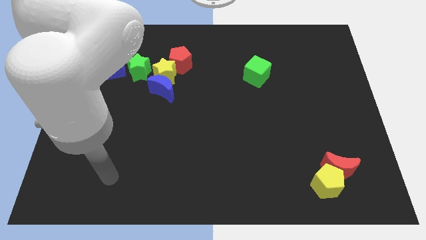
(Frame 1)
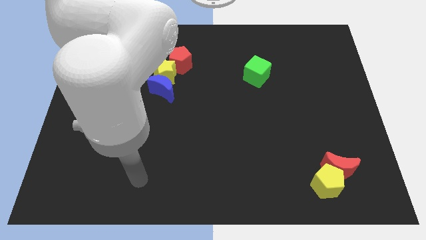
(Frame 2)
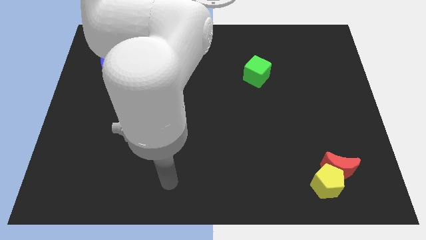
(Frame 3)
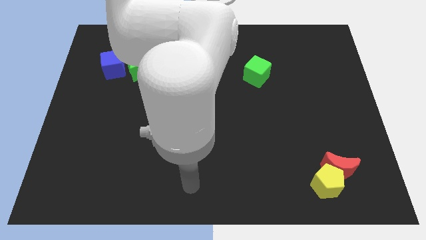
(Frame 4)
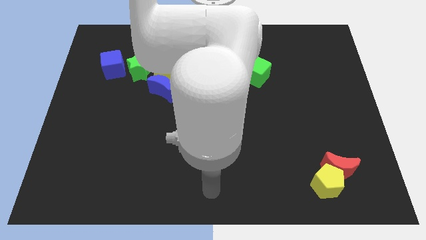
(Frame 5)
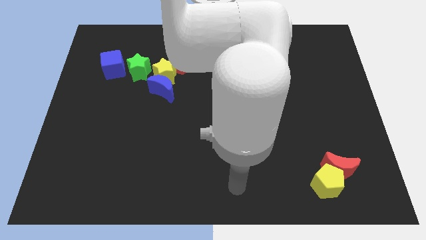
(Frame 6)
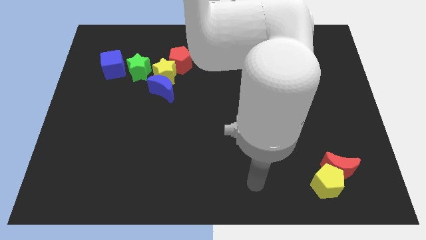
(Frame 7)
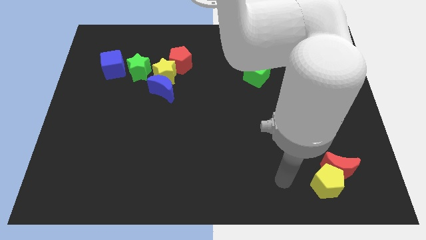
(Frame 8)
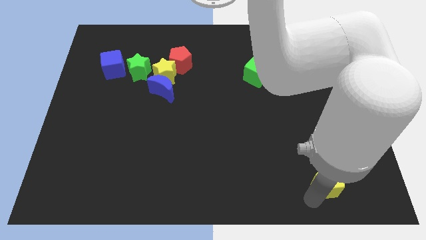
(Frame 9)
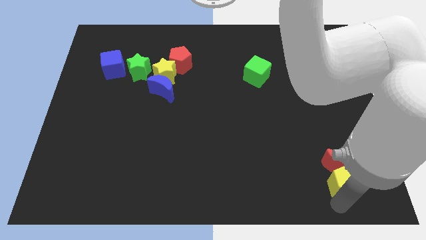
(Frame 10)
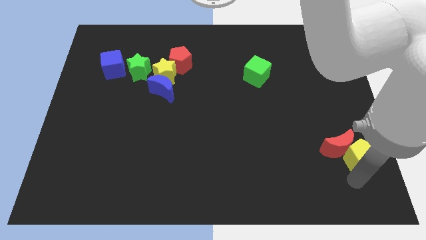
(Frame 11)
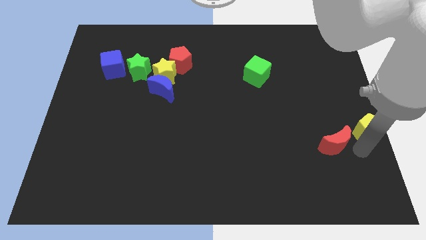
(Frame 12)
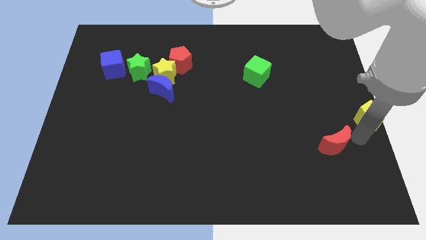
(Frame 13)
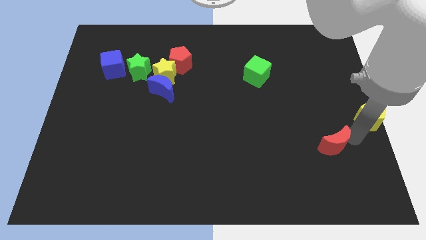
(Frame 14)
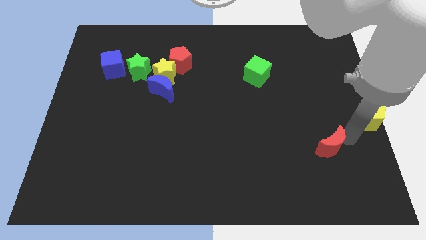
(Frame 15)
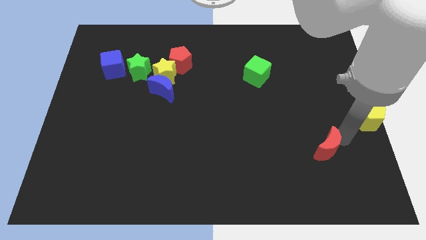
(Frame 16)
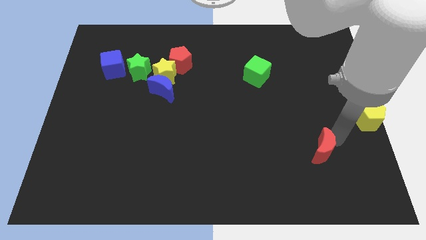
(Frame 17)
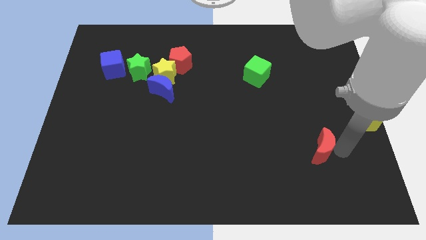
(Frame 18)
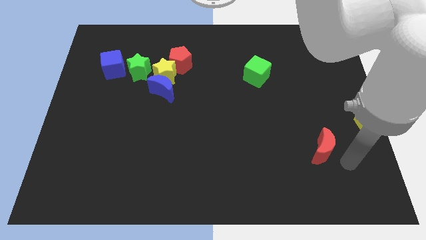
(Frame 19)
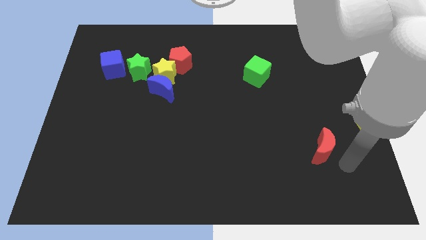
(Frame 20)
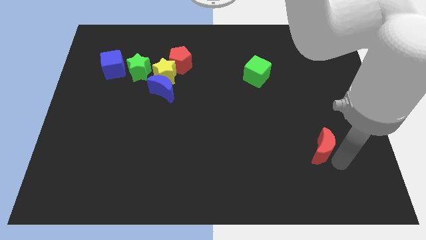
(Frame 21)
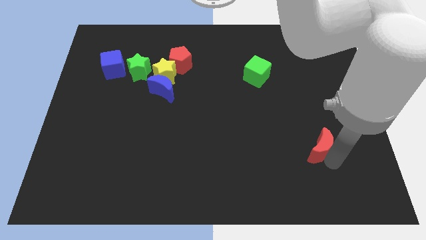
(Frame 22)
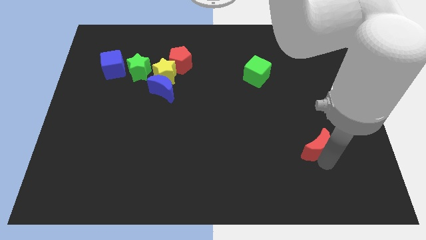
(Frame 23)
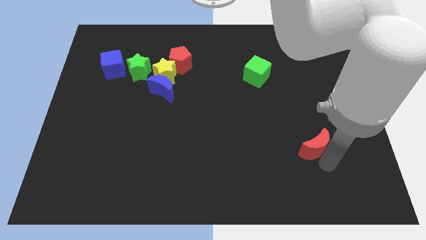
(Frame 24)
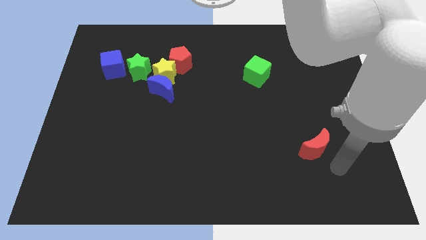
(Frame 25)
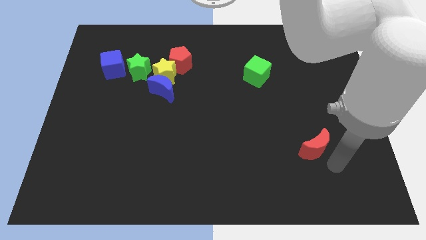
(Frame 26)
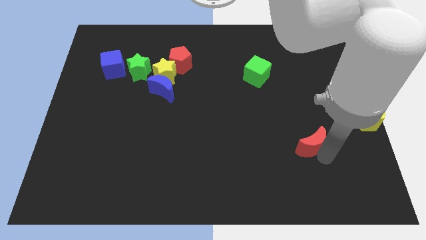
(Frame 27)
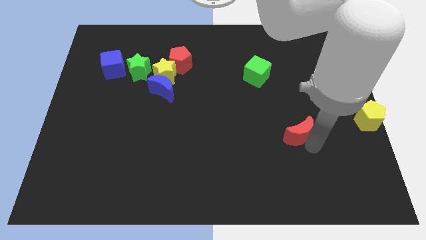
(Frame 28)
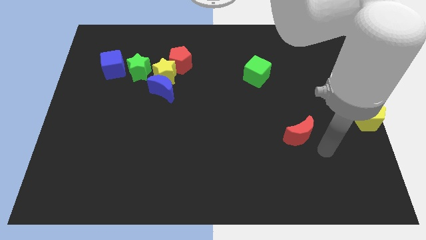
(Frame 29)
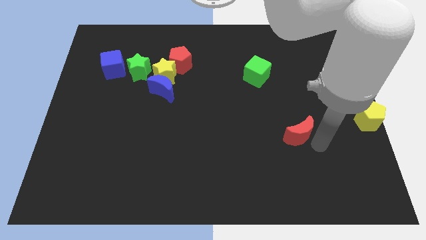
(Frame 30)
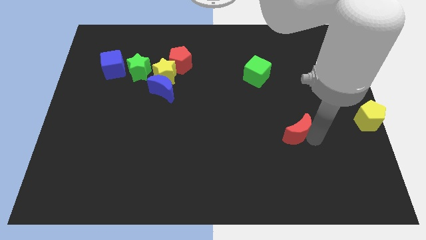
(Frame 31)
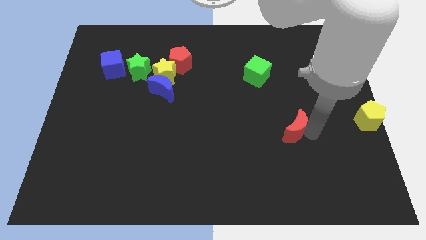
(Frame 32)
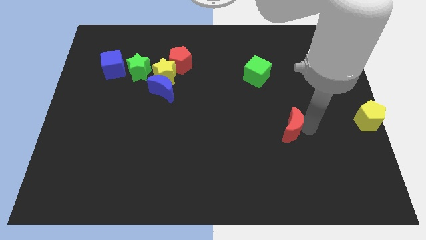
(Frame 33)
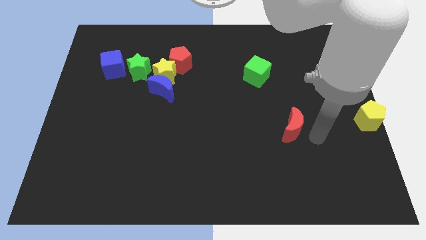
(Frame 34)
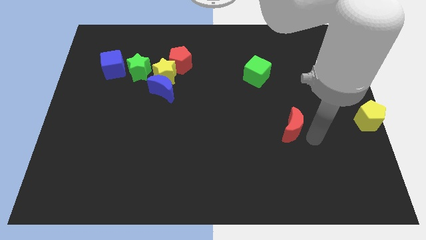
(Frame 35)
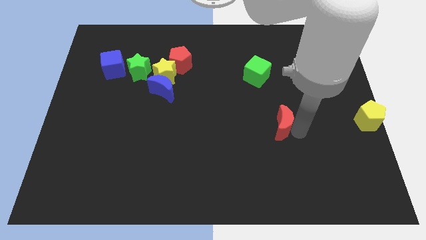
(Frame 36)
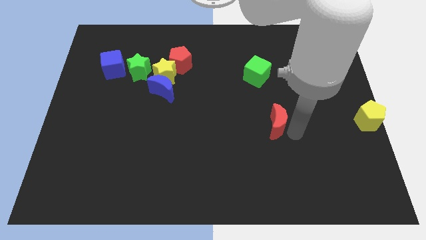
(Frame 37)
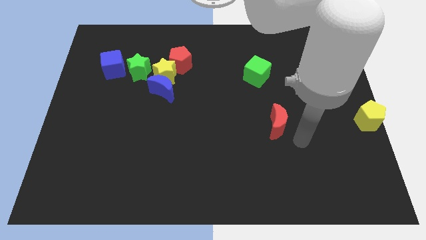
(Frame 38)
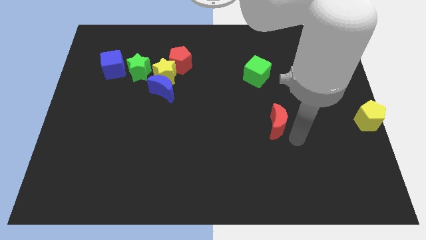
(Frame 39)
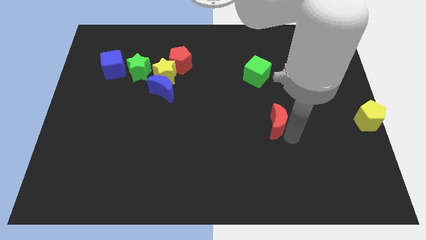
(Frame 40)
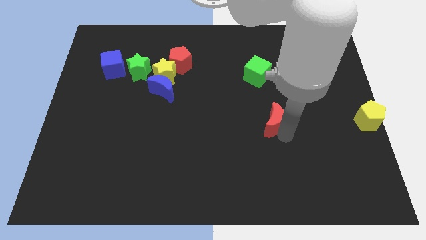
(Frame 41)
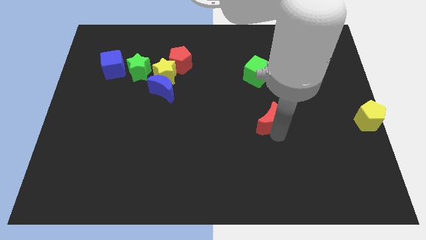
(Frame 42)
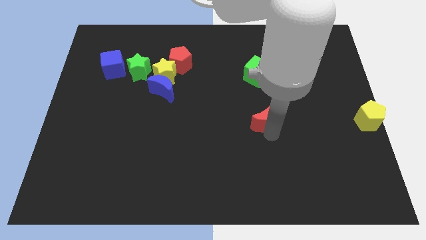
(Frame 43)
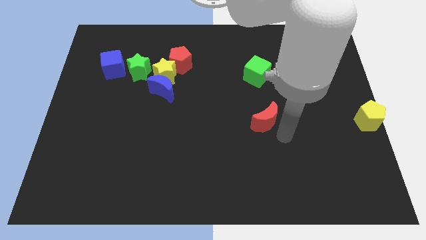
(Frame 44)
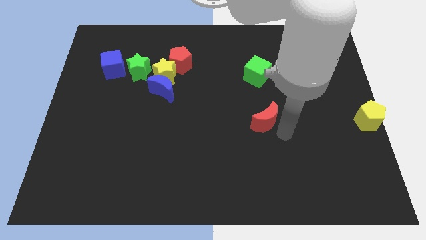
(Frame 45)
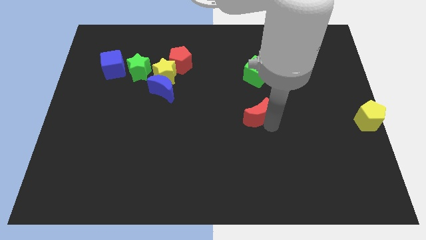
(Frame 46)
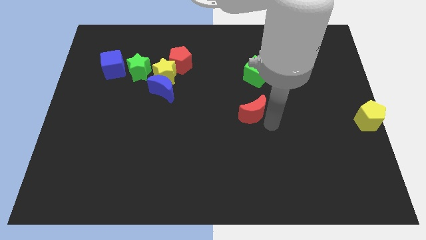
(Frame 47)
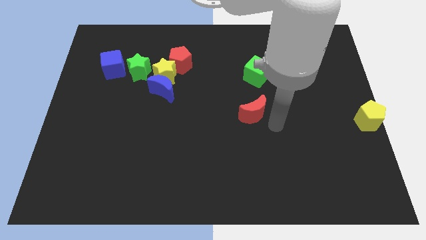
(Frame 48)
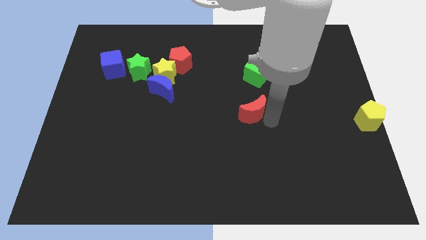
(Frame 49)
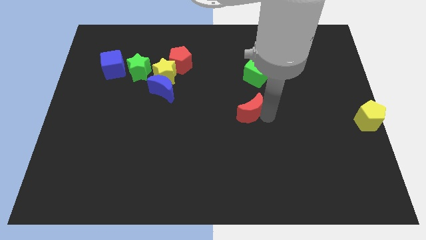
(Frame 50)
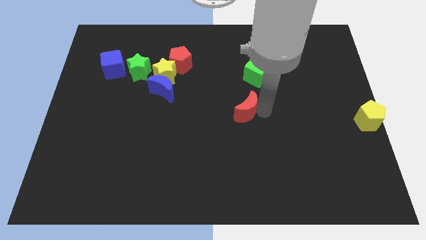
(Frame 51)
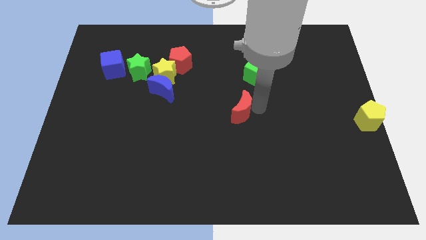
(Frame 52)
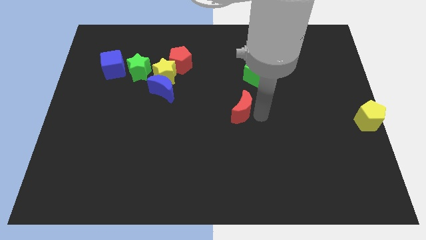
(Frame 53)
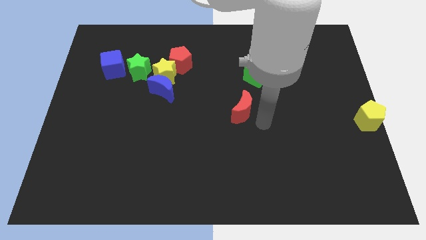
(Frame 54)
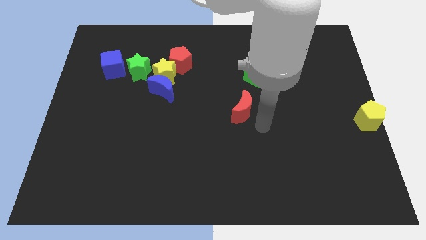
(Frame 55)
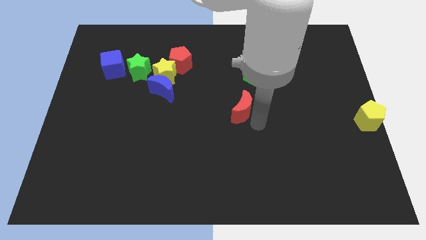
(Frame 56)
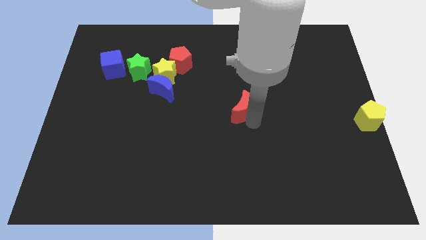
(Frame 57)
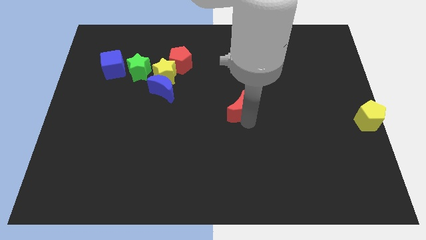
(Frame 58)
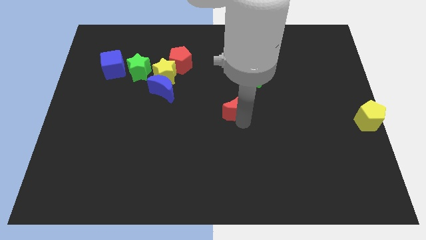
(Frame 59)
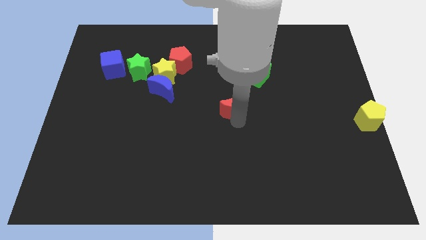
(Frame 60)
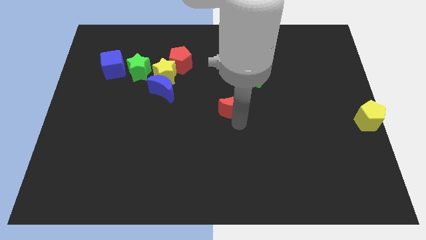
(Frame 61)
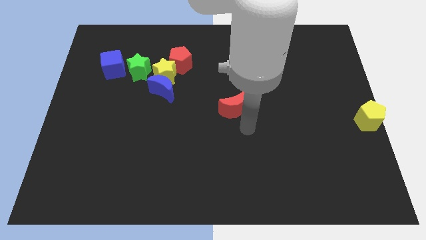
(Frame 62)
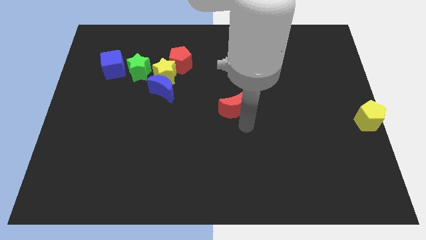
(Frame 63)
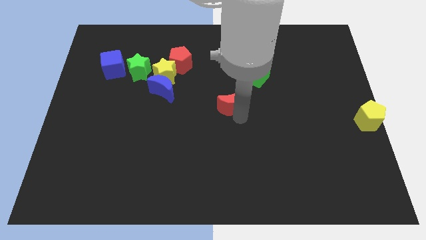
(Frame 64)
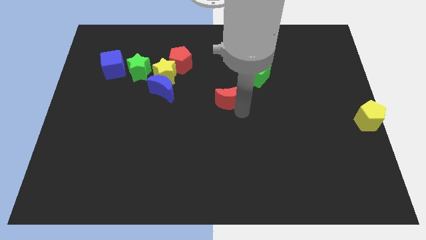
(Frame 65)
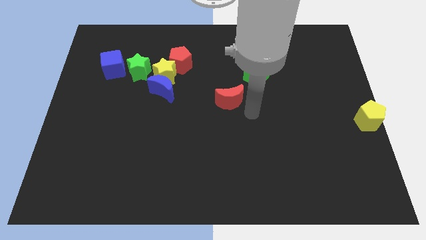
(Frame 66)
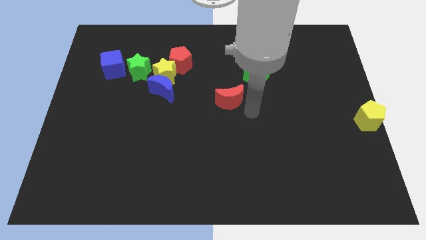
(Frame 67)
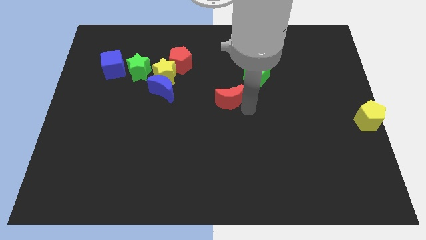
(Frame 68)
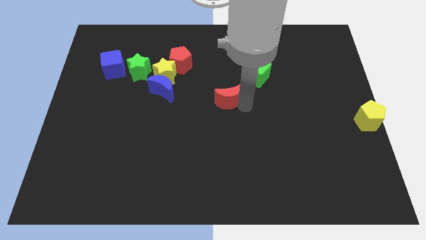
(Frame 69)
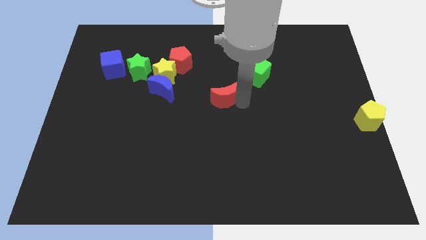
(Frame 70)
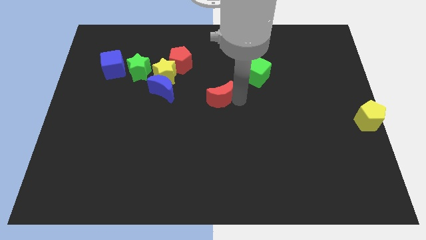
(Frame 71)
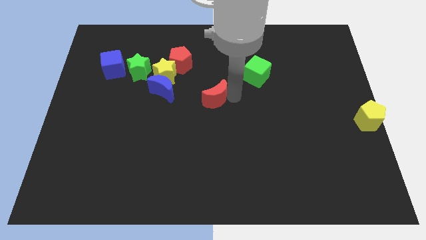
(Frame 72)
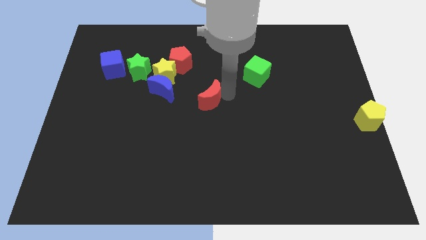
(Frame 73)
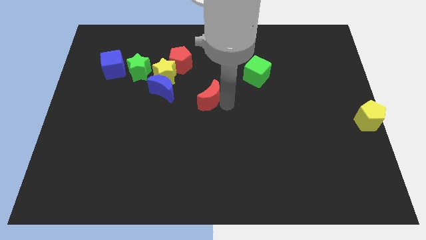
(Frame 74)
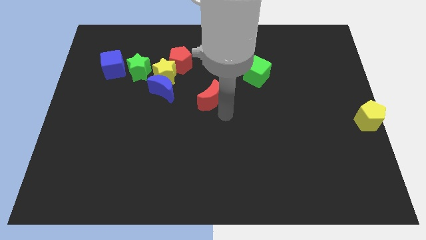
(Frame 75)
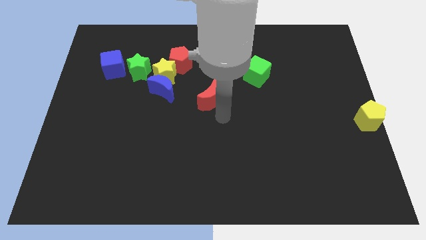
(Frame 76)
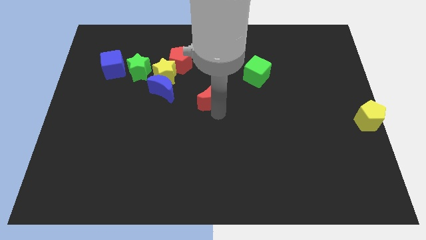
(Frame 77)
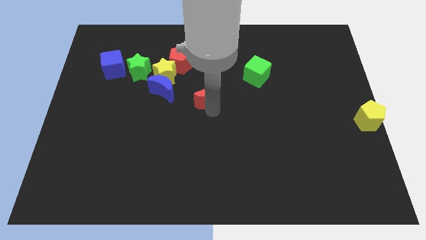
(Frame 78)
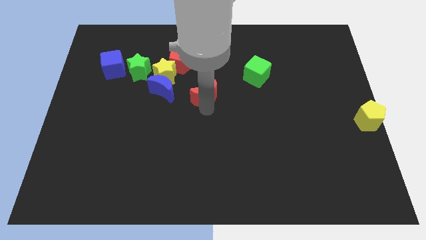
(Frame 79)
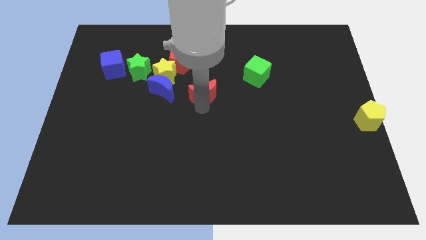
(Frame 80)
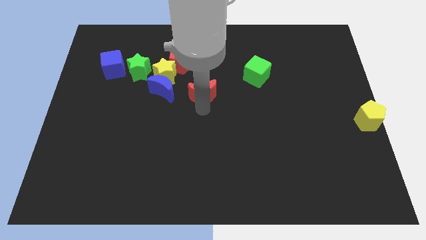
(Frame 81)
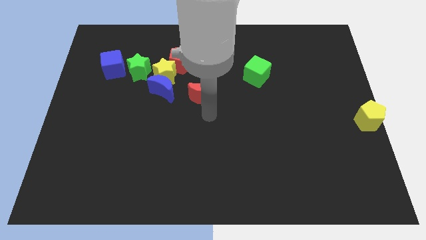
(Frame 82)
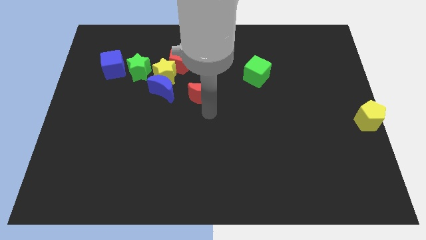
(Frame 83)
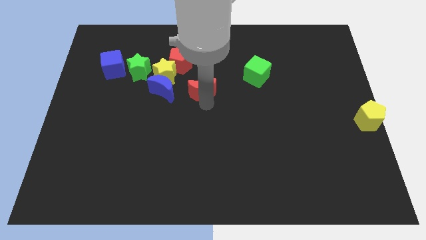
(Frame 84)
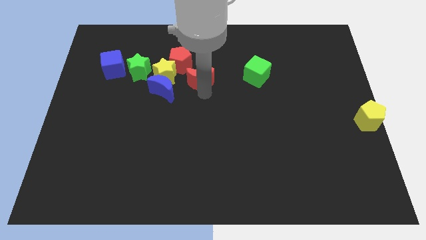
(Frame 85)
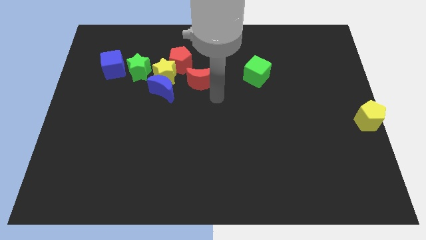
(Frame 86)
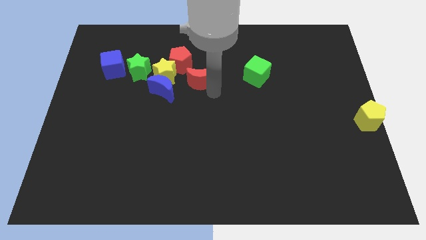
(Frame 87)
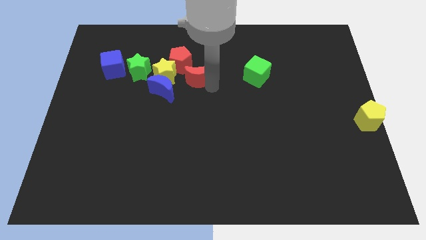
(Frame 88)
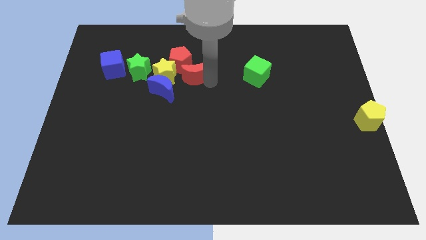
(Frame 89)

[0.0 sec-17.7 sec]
move the red moon to the red pentagon
